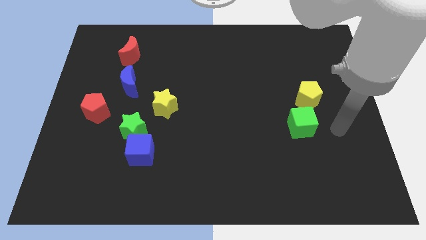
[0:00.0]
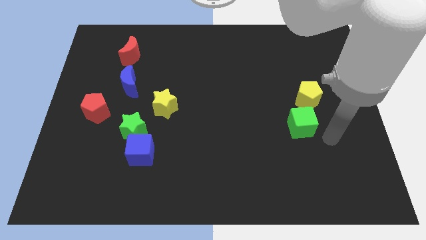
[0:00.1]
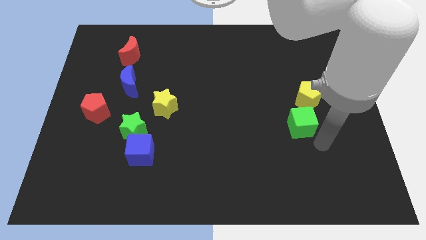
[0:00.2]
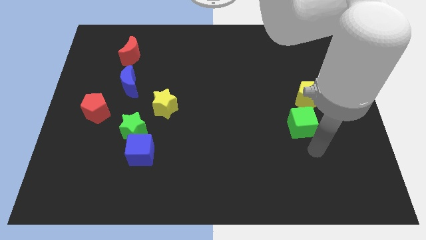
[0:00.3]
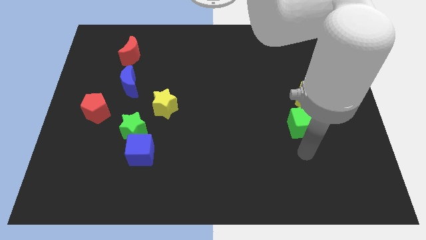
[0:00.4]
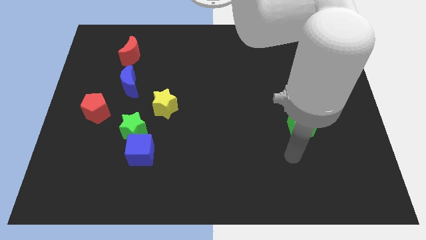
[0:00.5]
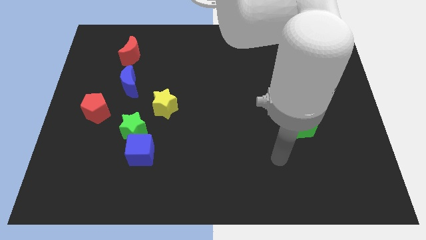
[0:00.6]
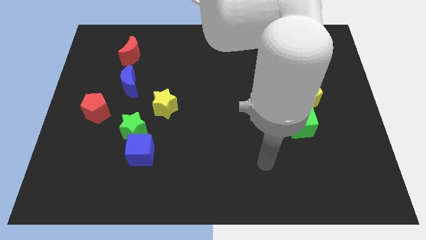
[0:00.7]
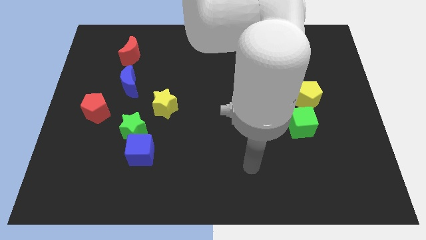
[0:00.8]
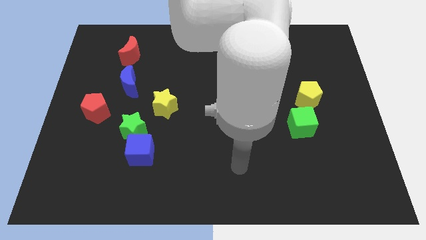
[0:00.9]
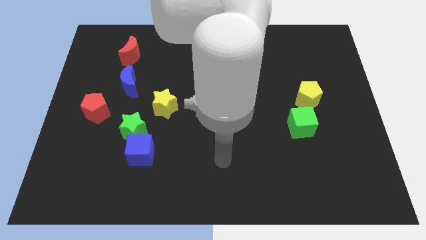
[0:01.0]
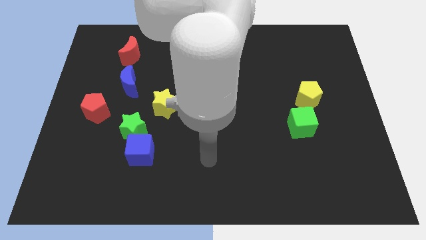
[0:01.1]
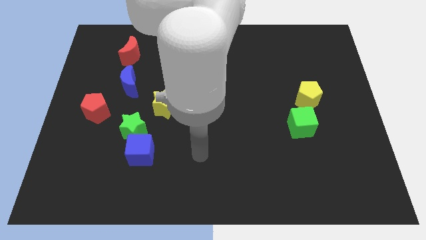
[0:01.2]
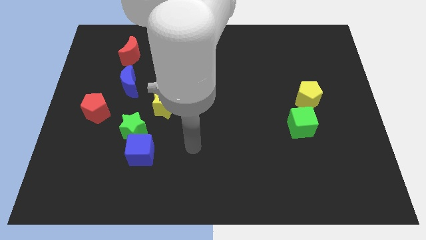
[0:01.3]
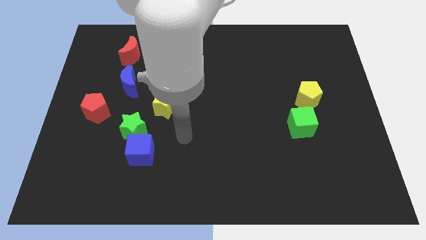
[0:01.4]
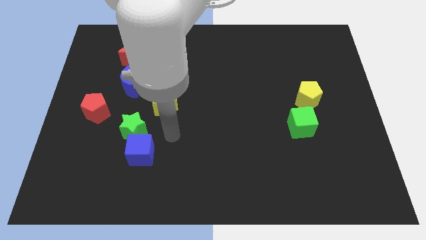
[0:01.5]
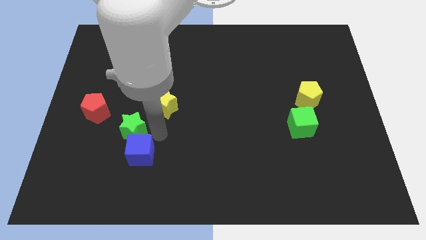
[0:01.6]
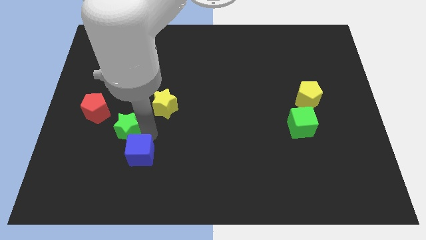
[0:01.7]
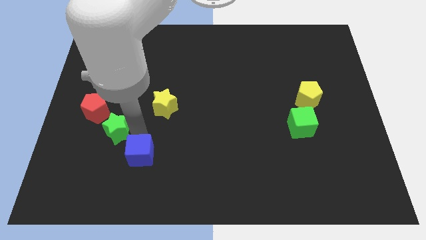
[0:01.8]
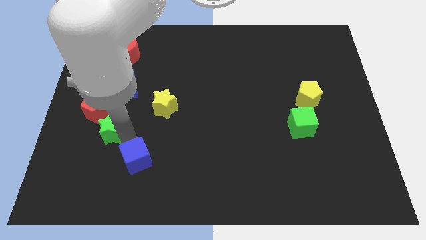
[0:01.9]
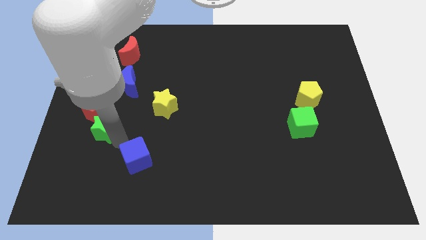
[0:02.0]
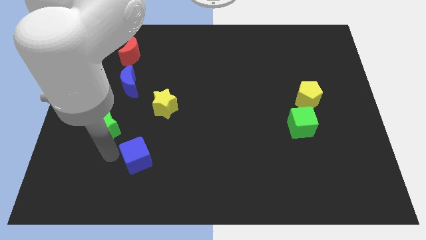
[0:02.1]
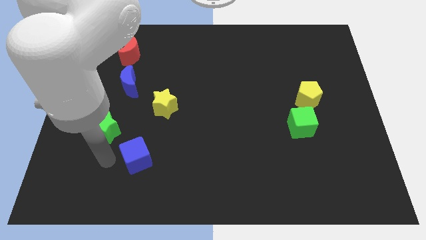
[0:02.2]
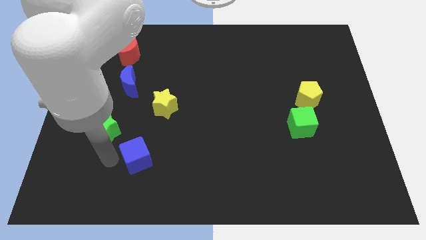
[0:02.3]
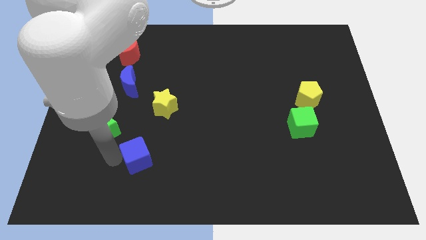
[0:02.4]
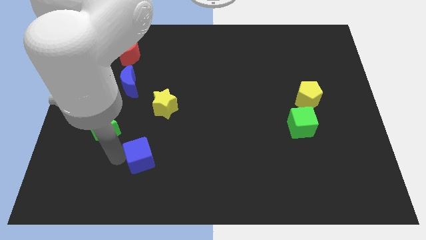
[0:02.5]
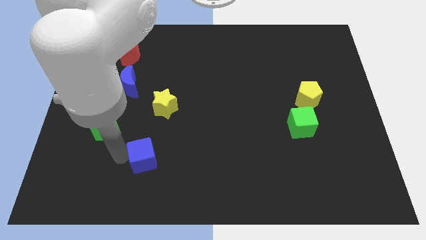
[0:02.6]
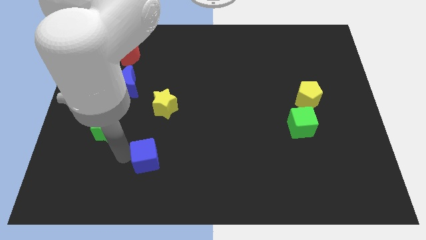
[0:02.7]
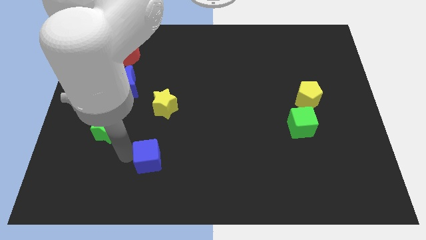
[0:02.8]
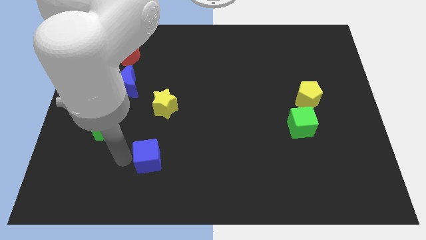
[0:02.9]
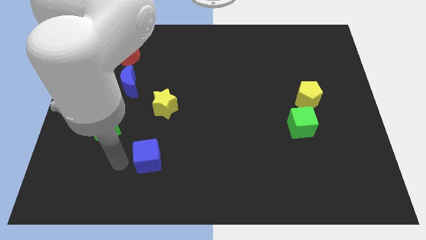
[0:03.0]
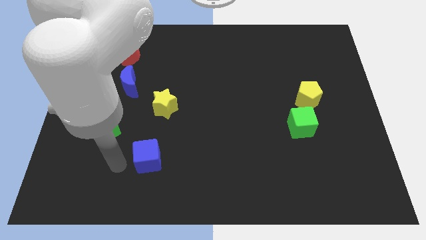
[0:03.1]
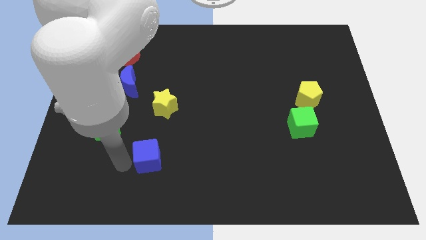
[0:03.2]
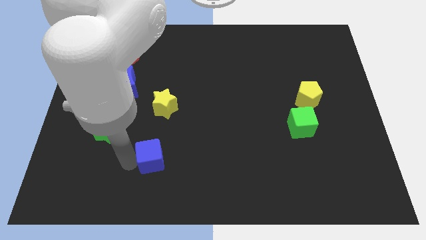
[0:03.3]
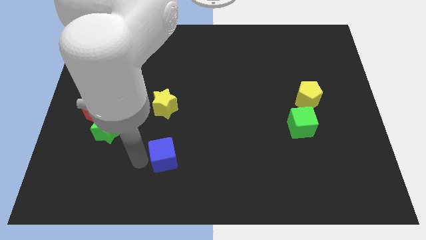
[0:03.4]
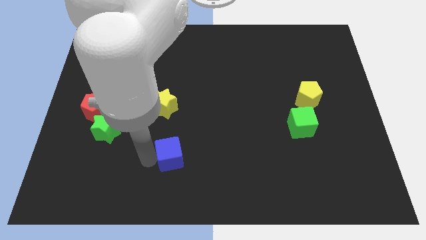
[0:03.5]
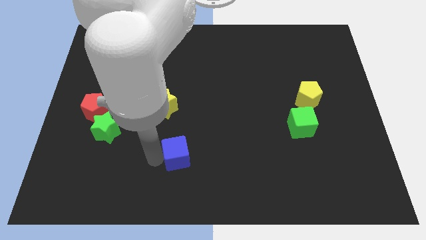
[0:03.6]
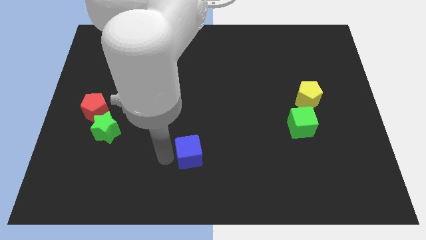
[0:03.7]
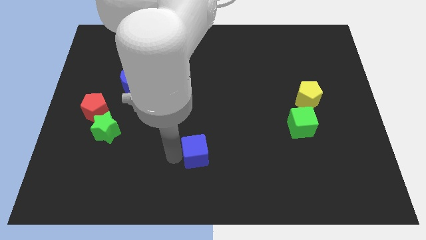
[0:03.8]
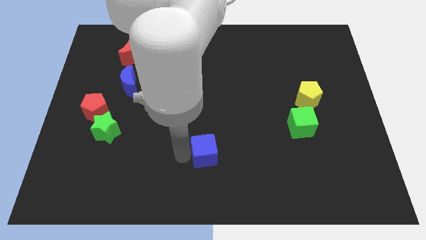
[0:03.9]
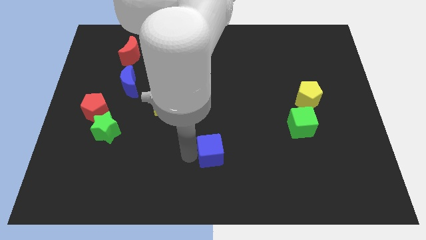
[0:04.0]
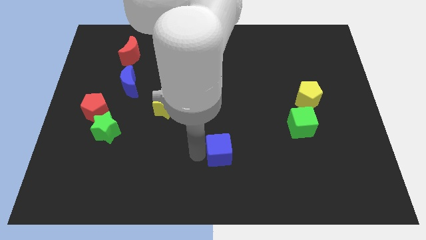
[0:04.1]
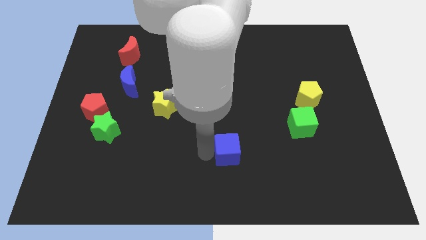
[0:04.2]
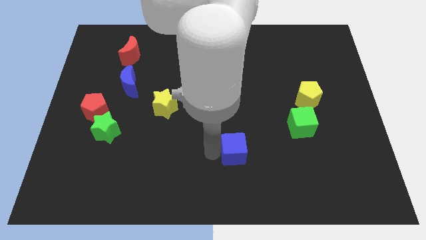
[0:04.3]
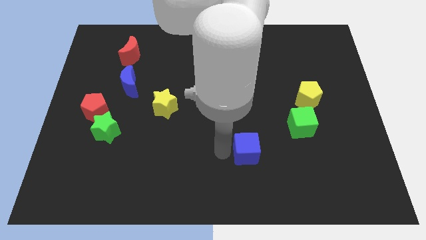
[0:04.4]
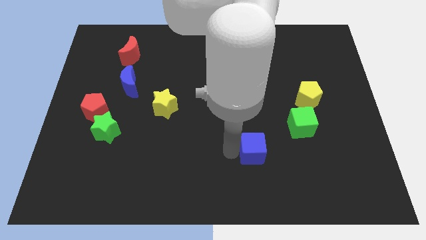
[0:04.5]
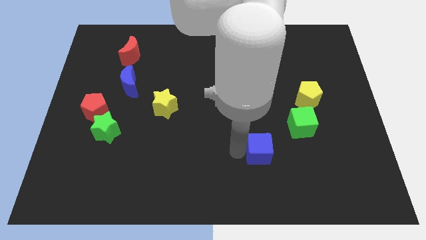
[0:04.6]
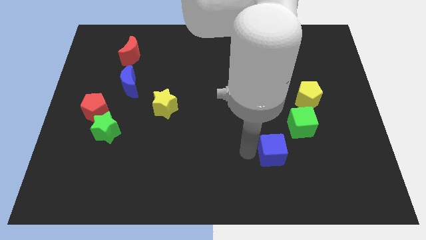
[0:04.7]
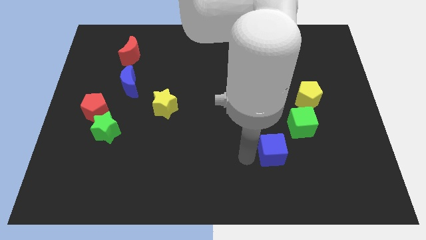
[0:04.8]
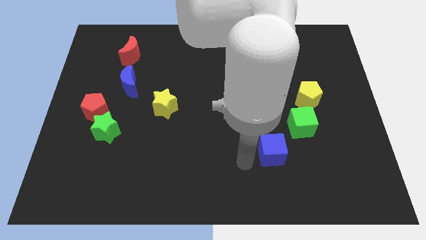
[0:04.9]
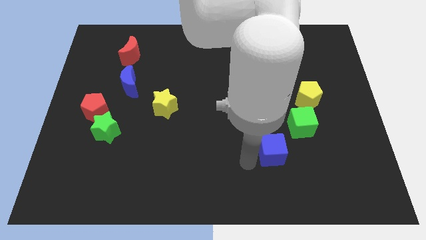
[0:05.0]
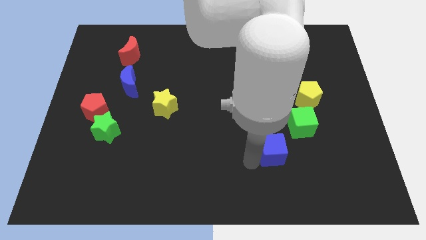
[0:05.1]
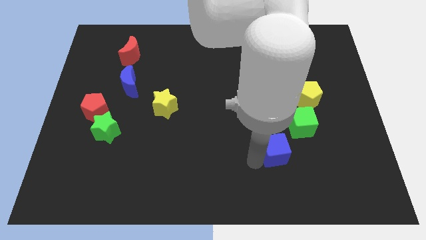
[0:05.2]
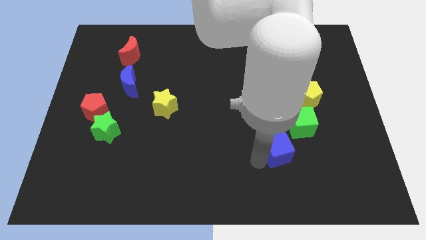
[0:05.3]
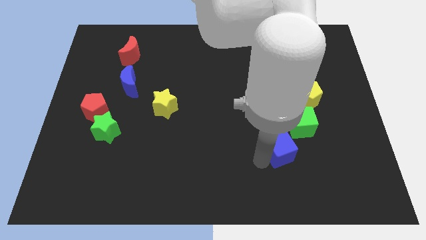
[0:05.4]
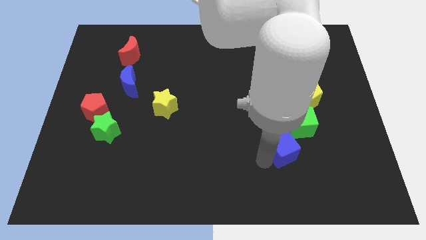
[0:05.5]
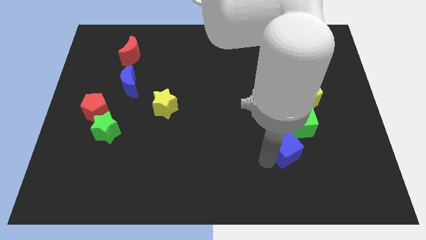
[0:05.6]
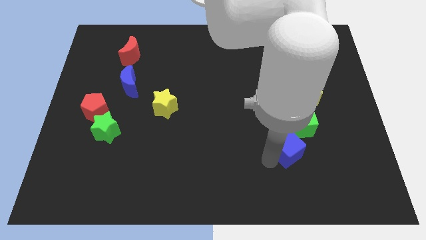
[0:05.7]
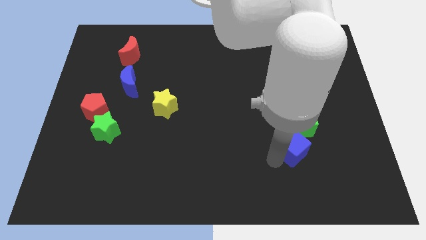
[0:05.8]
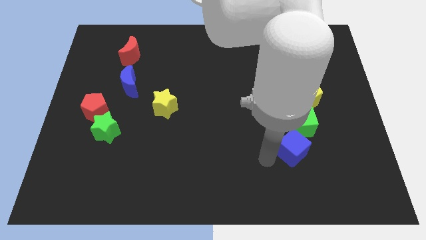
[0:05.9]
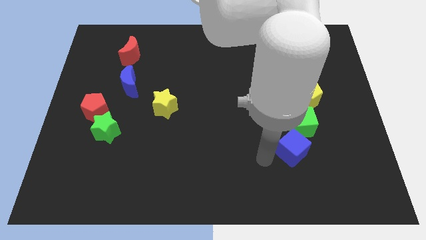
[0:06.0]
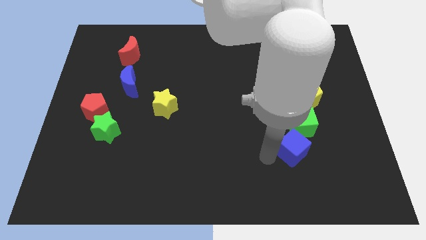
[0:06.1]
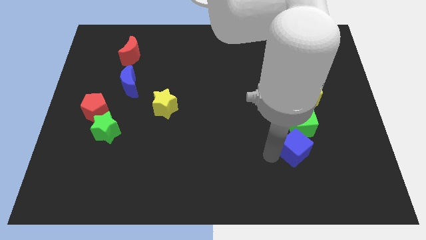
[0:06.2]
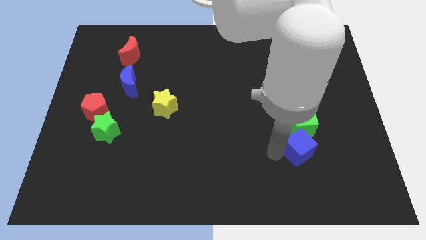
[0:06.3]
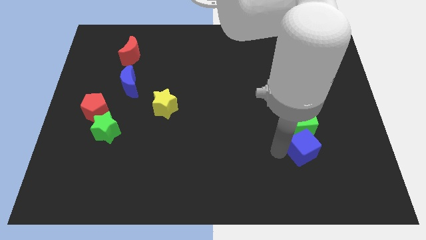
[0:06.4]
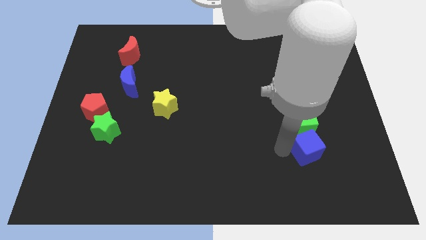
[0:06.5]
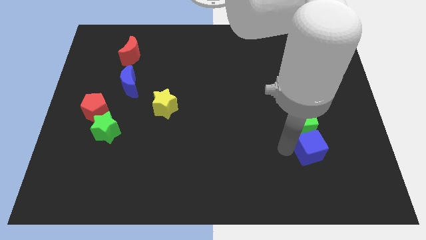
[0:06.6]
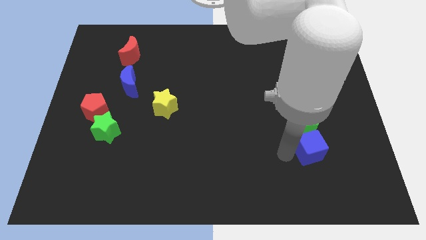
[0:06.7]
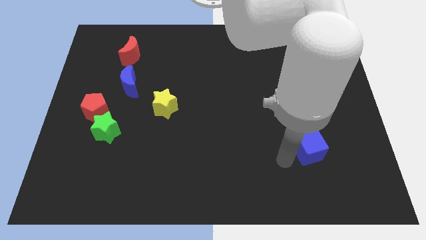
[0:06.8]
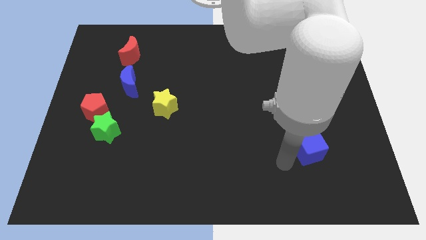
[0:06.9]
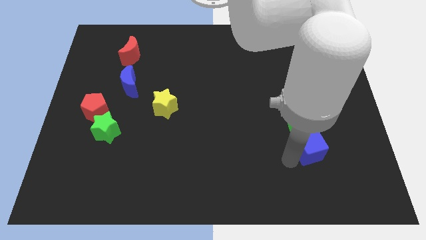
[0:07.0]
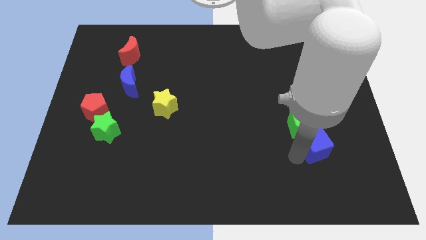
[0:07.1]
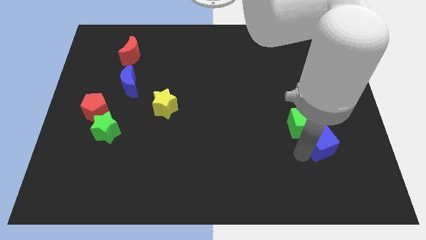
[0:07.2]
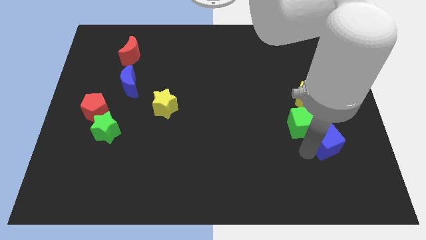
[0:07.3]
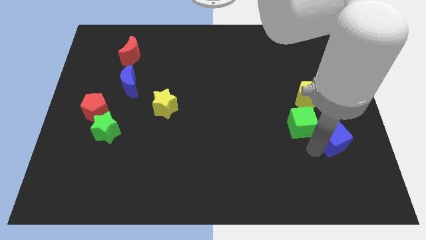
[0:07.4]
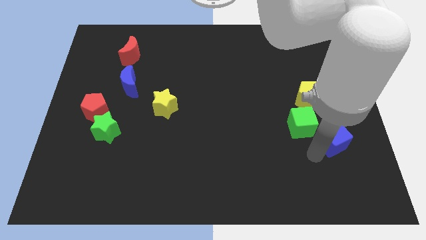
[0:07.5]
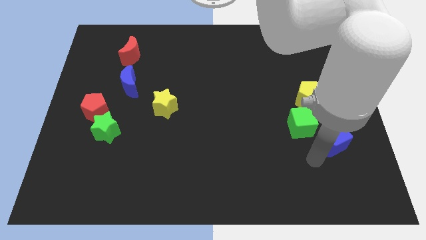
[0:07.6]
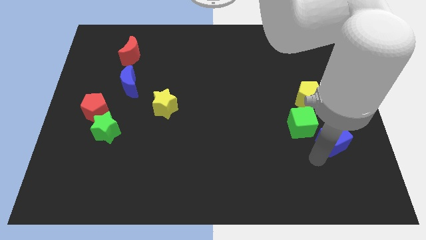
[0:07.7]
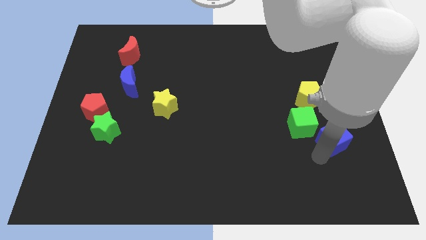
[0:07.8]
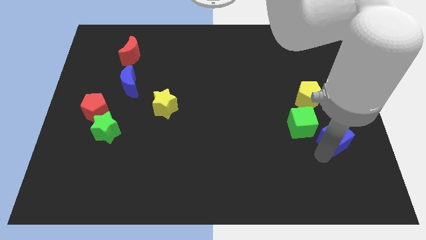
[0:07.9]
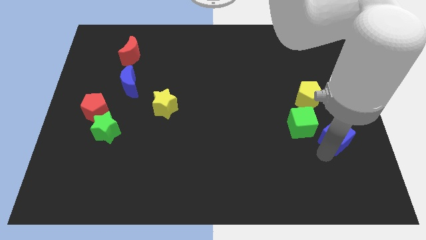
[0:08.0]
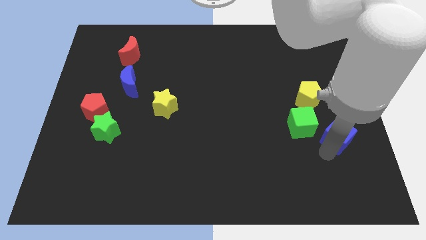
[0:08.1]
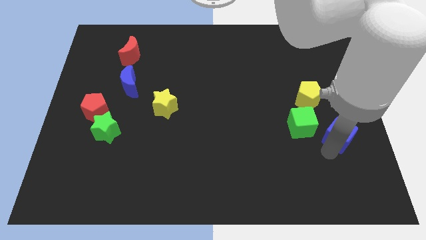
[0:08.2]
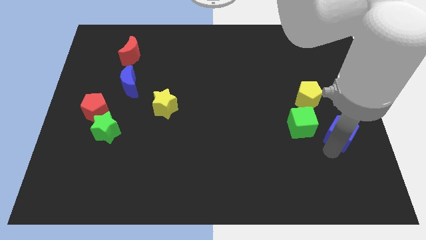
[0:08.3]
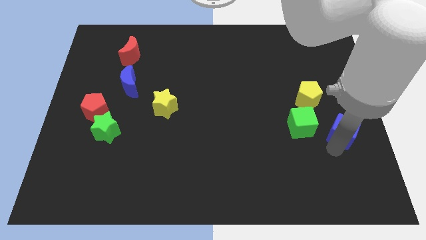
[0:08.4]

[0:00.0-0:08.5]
push the blue cube to the right side
